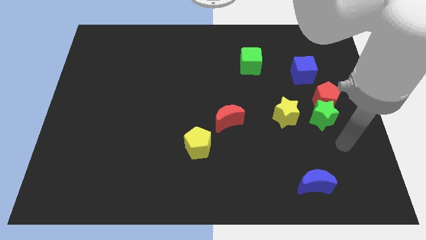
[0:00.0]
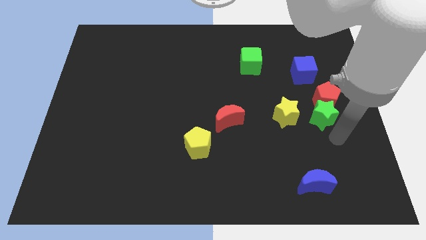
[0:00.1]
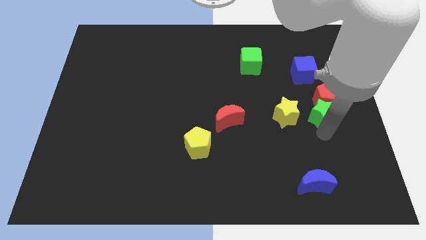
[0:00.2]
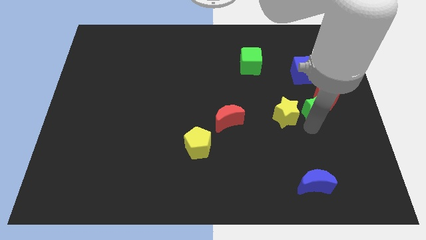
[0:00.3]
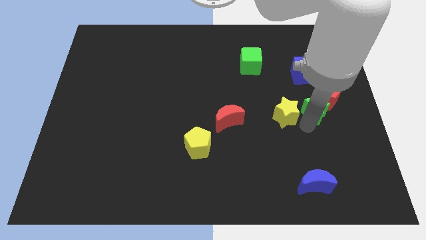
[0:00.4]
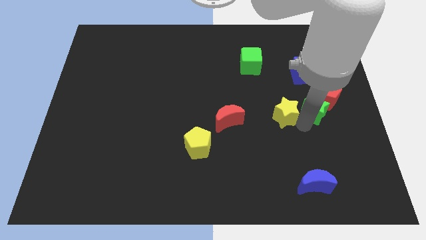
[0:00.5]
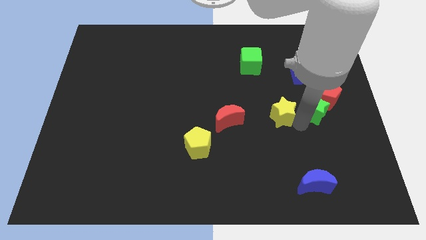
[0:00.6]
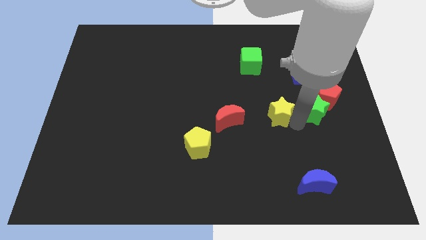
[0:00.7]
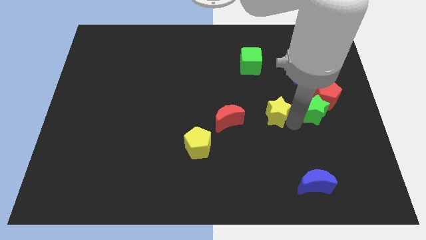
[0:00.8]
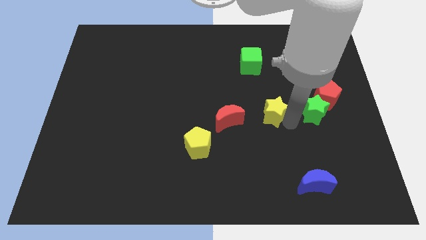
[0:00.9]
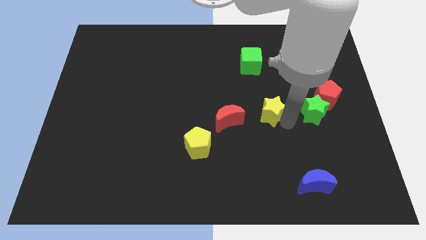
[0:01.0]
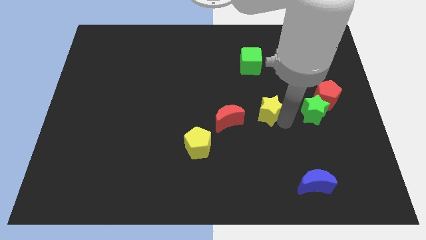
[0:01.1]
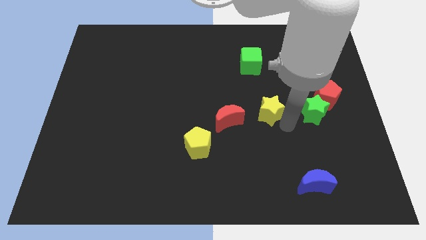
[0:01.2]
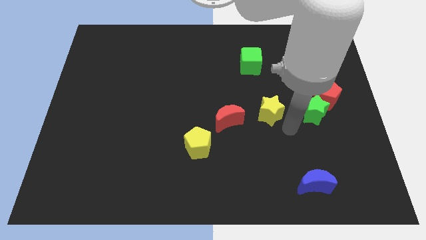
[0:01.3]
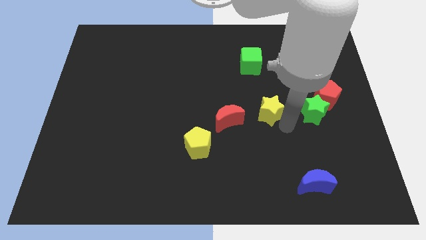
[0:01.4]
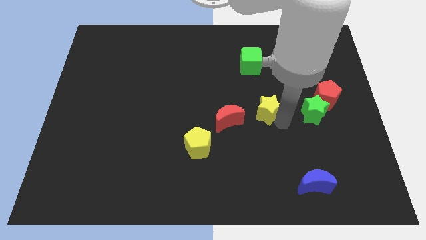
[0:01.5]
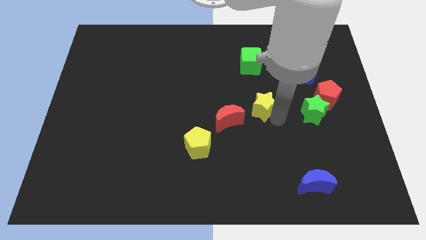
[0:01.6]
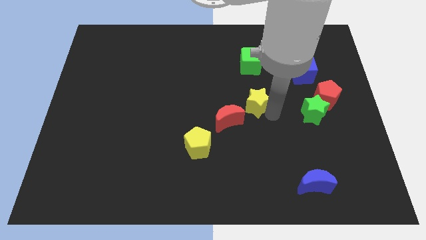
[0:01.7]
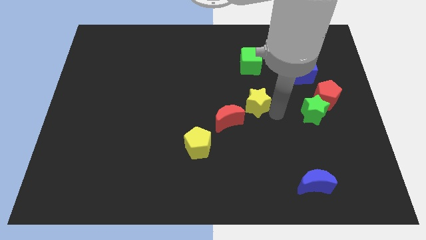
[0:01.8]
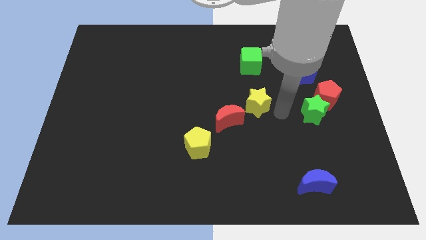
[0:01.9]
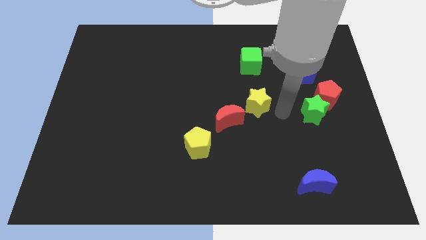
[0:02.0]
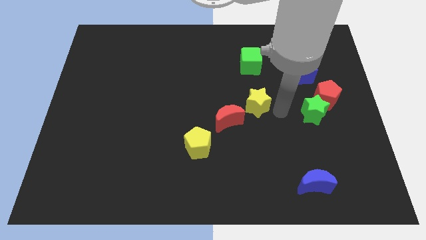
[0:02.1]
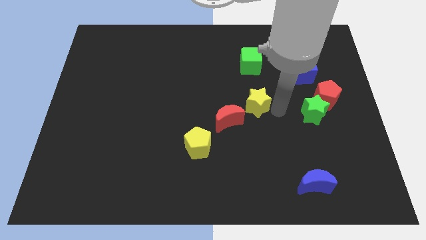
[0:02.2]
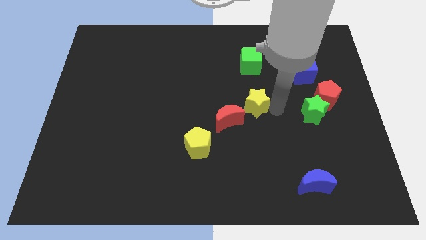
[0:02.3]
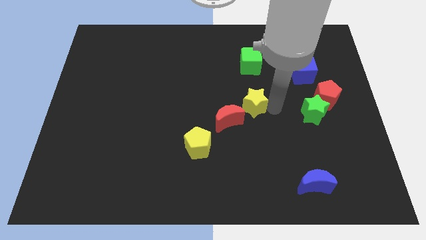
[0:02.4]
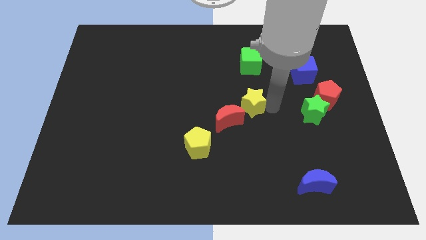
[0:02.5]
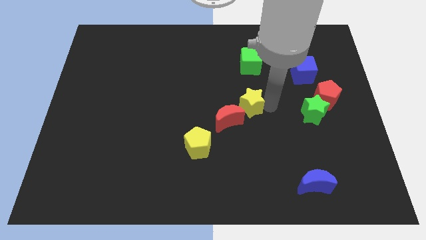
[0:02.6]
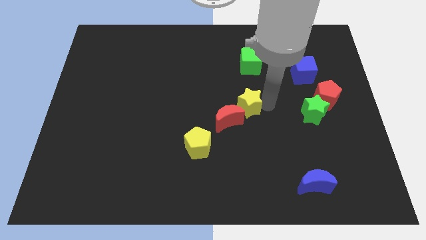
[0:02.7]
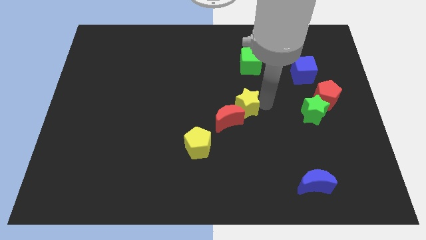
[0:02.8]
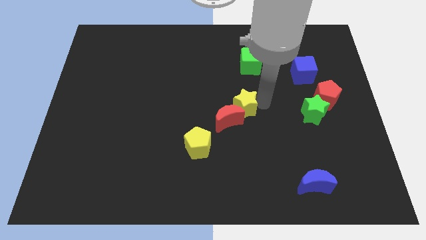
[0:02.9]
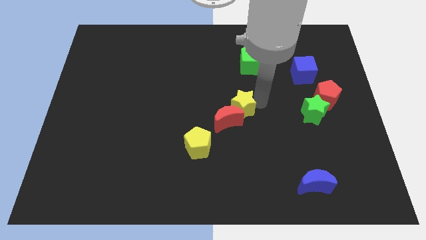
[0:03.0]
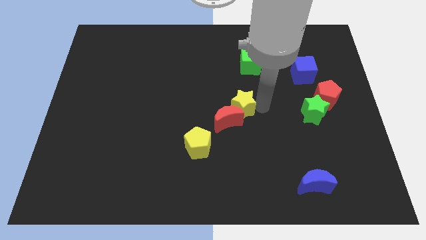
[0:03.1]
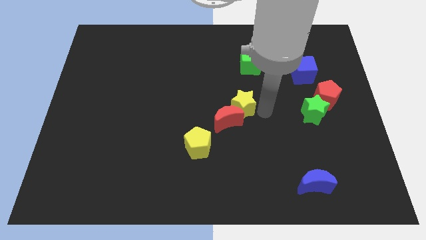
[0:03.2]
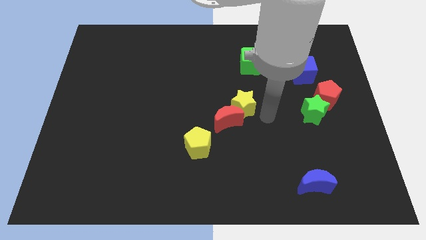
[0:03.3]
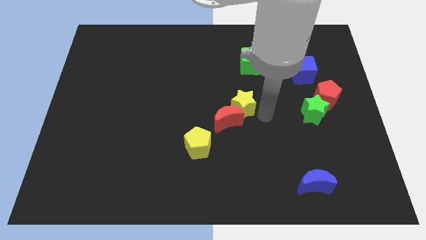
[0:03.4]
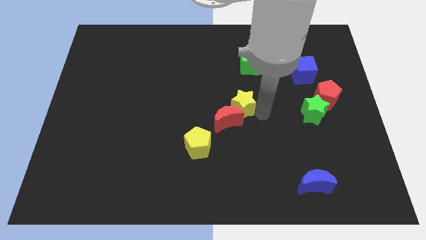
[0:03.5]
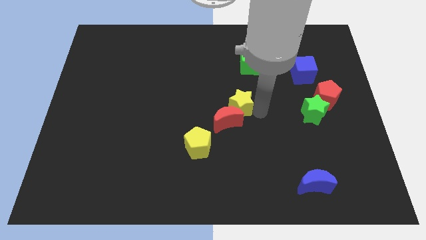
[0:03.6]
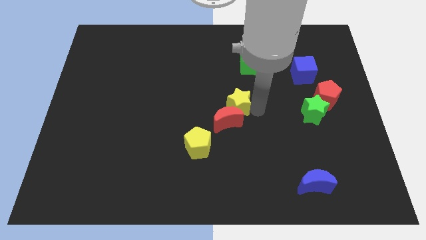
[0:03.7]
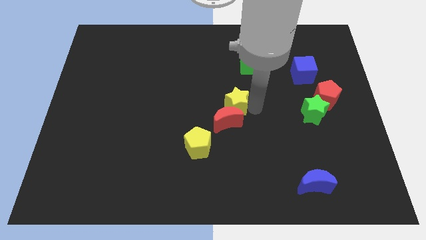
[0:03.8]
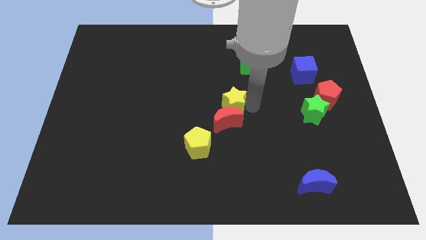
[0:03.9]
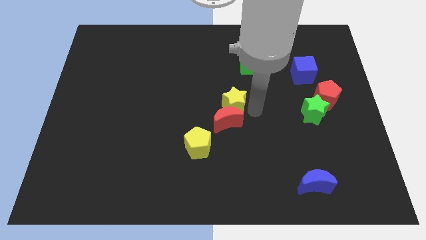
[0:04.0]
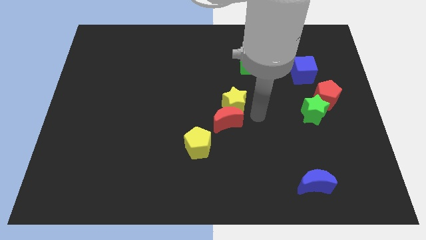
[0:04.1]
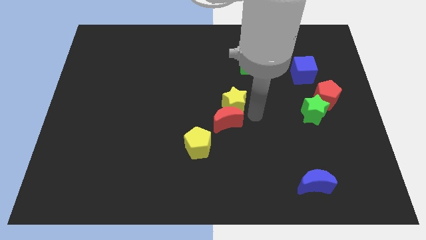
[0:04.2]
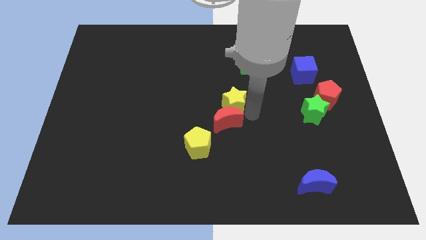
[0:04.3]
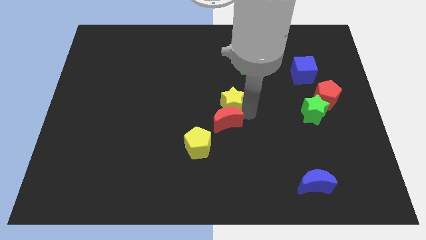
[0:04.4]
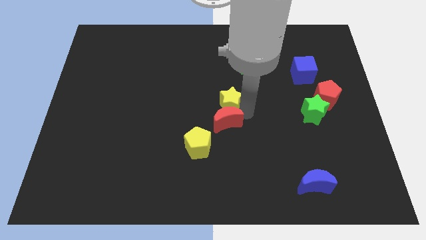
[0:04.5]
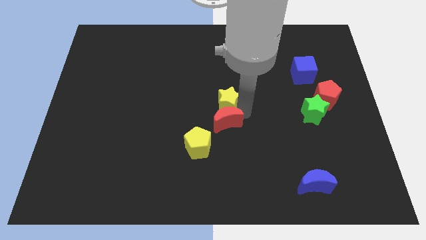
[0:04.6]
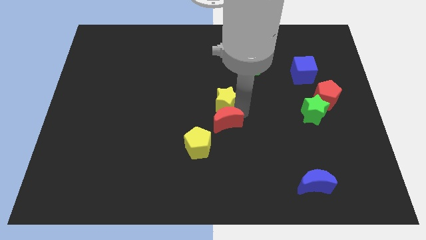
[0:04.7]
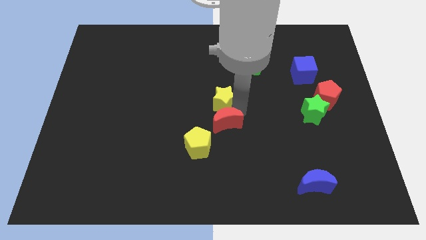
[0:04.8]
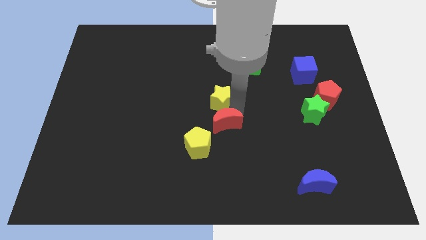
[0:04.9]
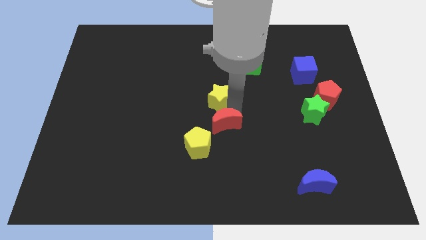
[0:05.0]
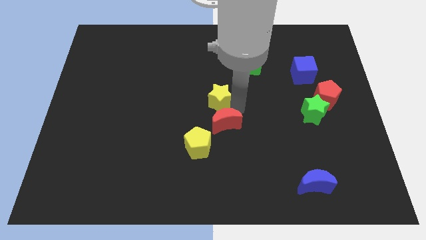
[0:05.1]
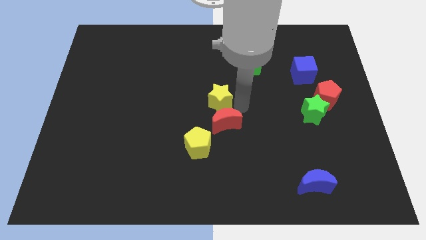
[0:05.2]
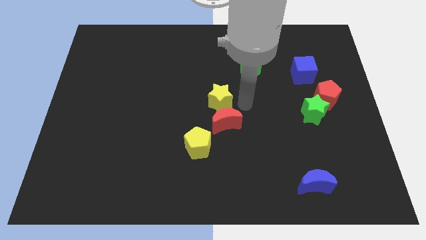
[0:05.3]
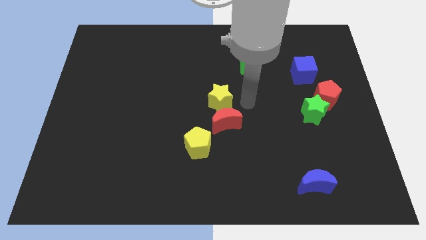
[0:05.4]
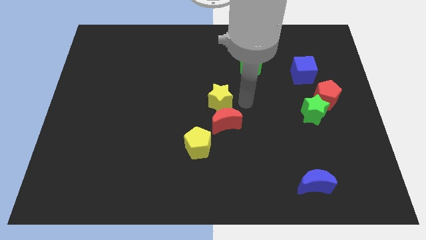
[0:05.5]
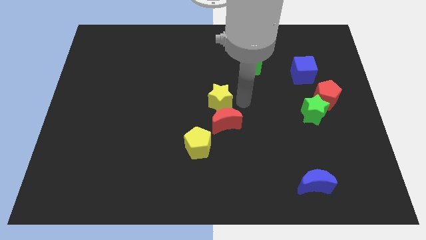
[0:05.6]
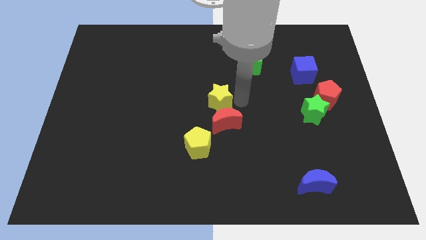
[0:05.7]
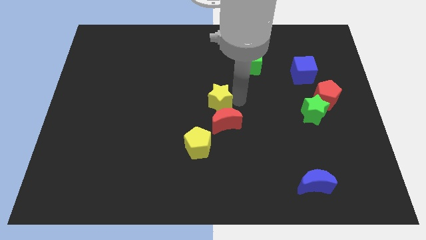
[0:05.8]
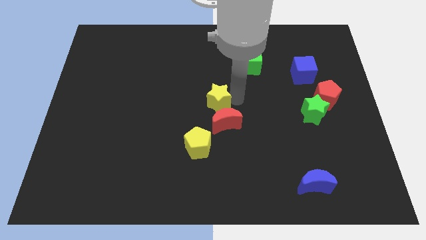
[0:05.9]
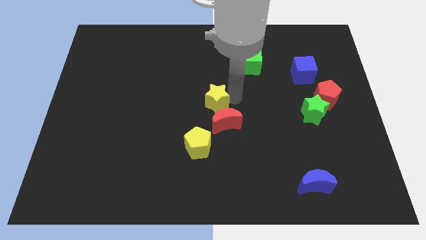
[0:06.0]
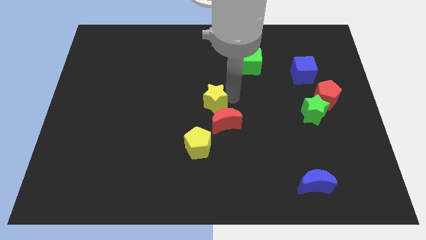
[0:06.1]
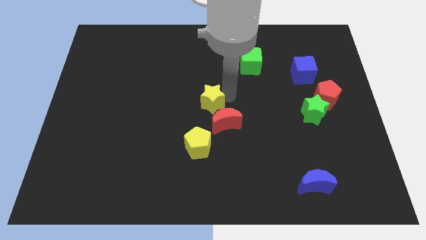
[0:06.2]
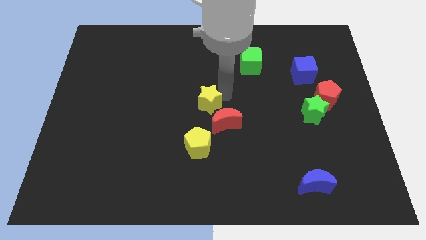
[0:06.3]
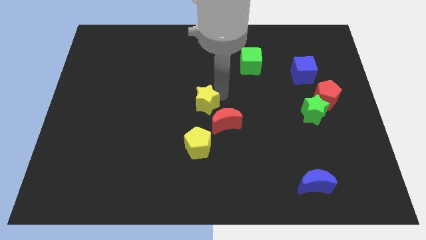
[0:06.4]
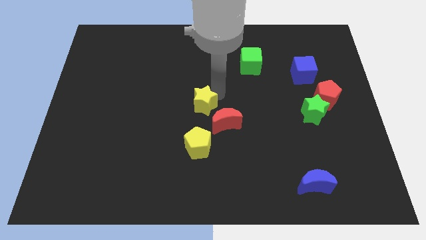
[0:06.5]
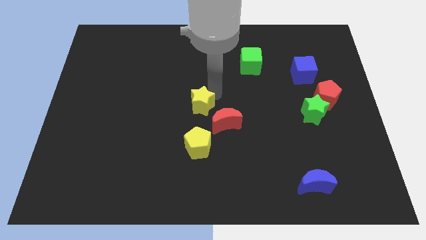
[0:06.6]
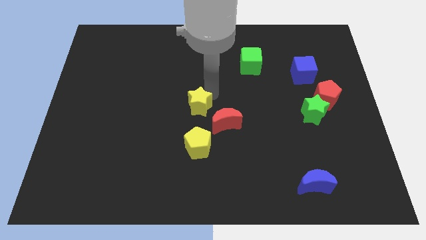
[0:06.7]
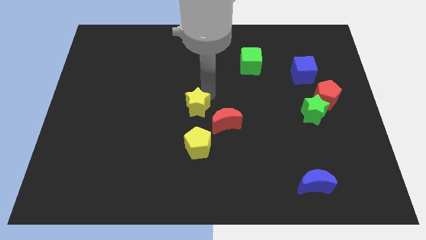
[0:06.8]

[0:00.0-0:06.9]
move the yellow star to the left

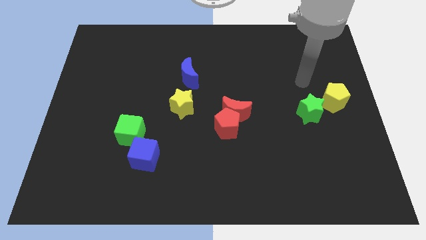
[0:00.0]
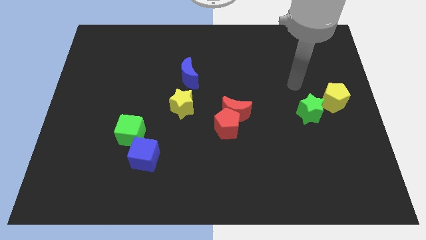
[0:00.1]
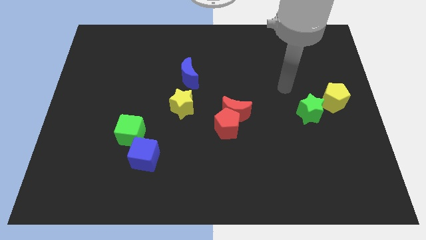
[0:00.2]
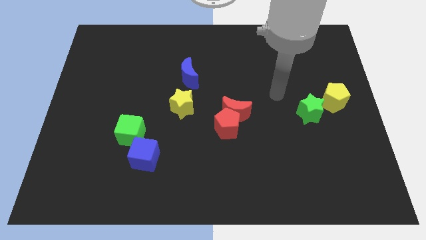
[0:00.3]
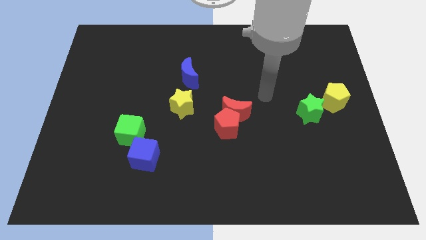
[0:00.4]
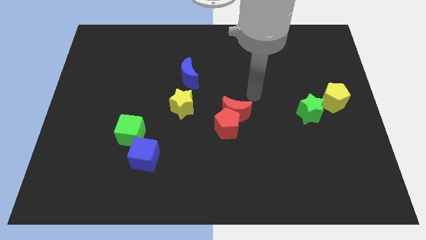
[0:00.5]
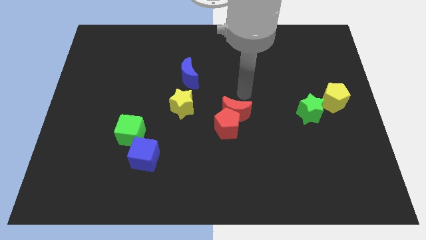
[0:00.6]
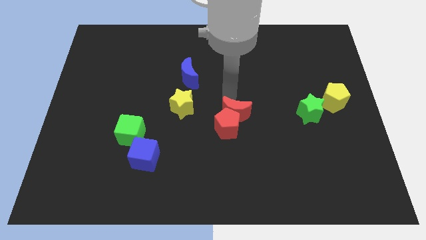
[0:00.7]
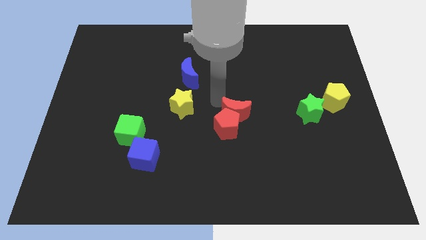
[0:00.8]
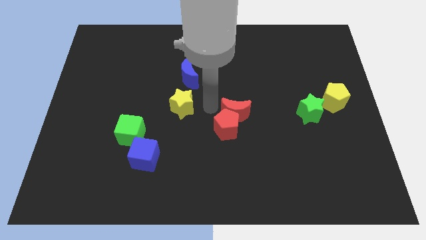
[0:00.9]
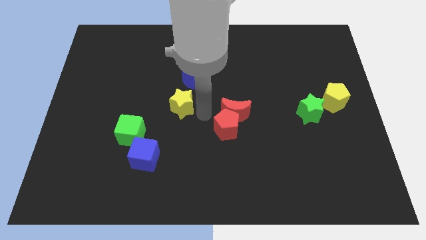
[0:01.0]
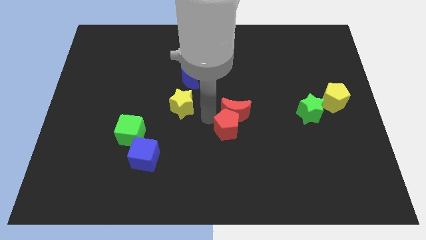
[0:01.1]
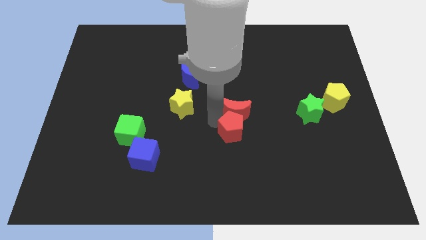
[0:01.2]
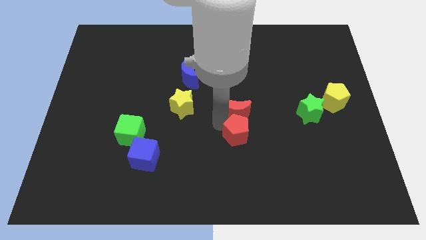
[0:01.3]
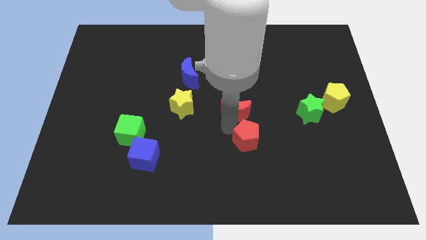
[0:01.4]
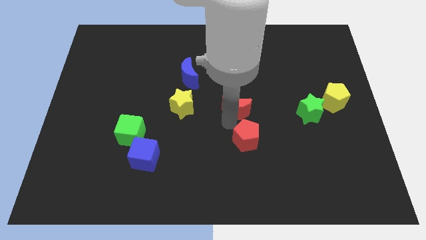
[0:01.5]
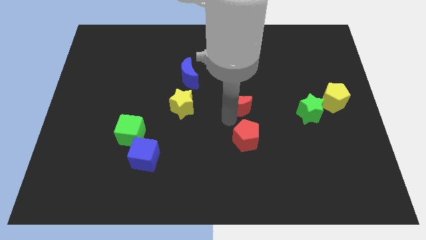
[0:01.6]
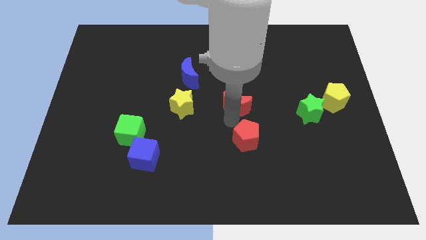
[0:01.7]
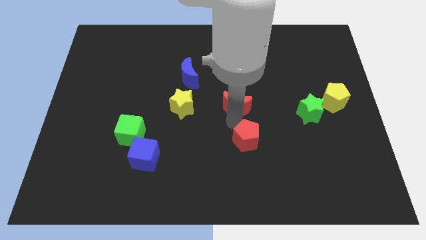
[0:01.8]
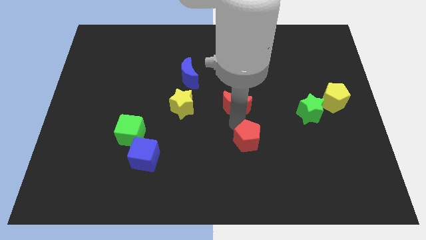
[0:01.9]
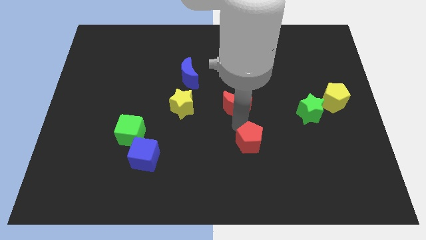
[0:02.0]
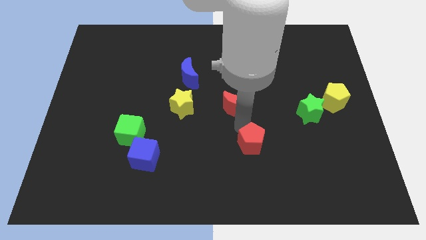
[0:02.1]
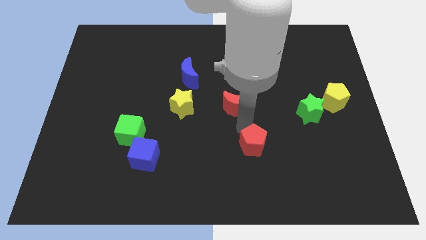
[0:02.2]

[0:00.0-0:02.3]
slightly push the red pentagon diagonally down and right
